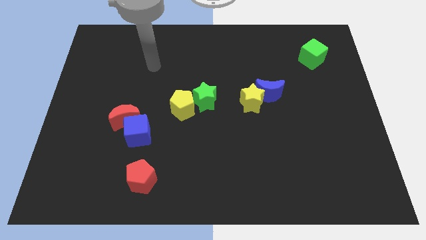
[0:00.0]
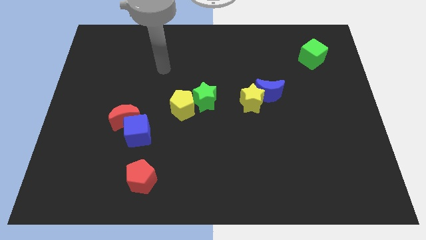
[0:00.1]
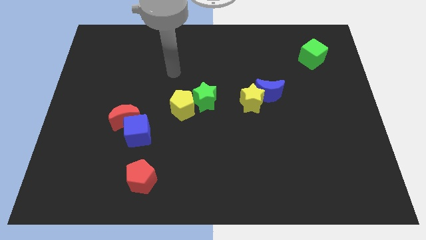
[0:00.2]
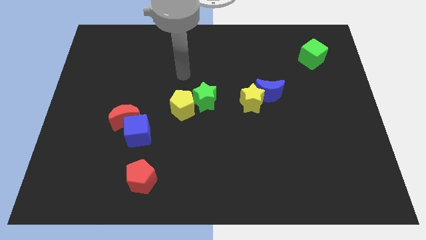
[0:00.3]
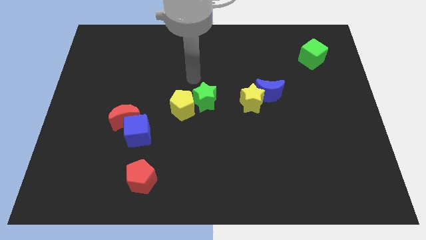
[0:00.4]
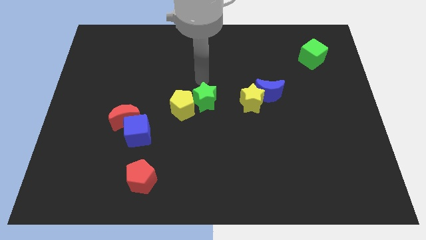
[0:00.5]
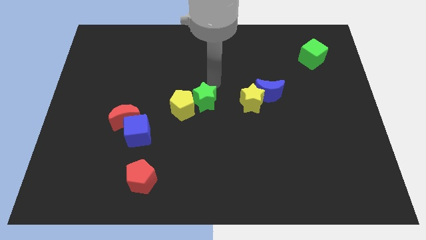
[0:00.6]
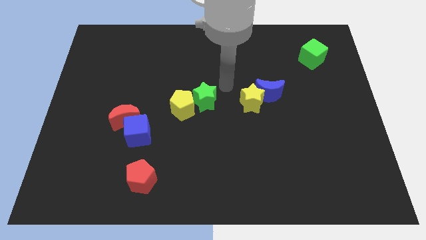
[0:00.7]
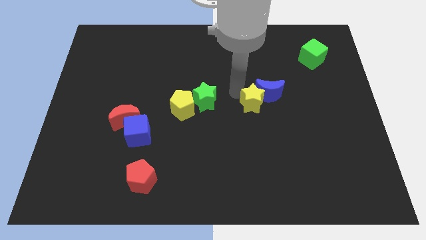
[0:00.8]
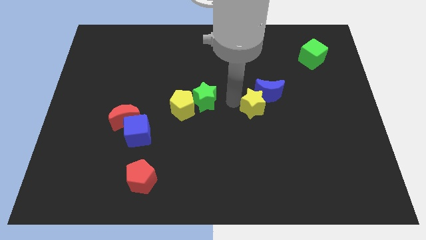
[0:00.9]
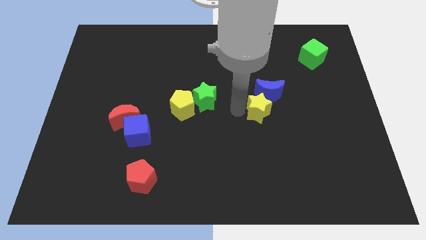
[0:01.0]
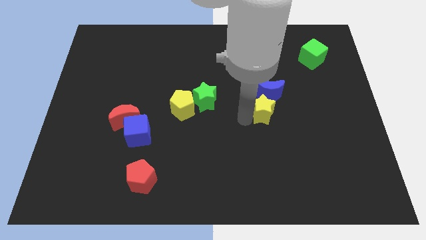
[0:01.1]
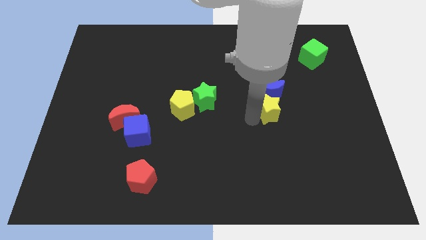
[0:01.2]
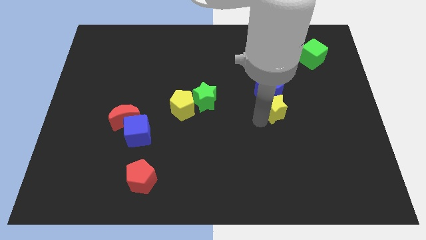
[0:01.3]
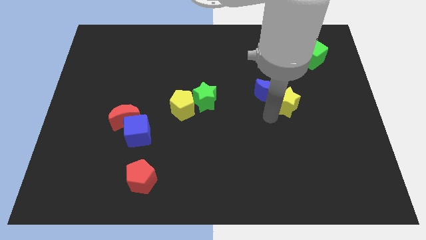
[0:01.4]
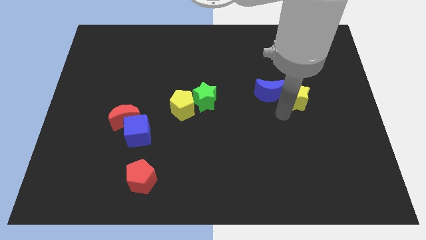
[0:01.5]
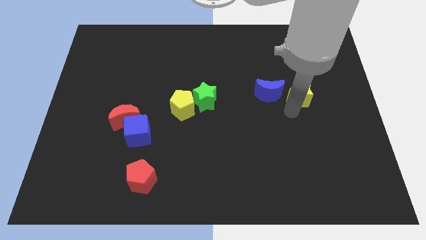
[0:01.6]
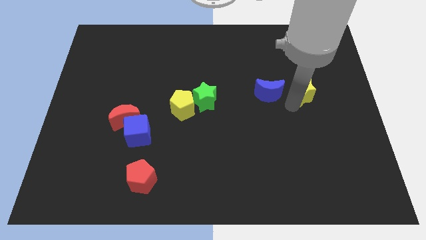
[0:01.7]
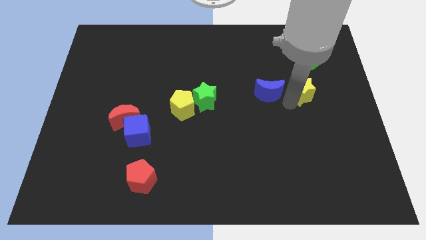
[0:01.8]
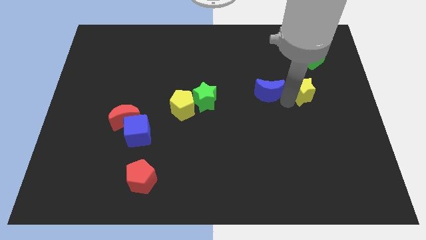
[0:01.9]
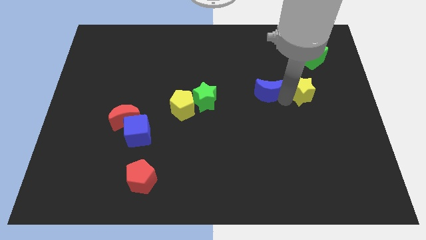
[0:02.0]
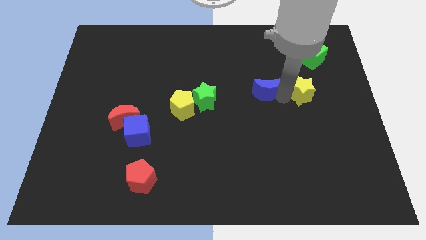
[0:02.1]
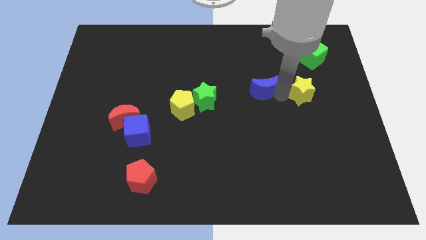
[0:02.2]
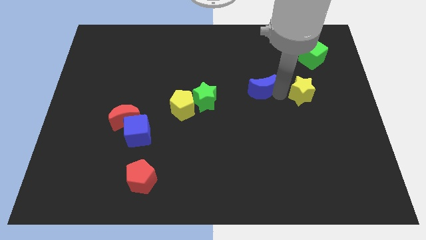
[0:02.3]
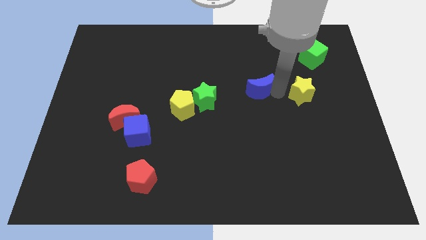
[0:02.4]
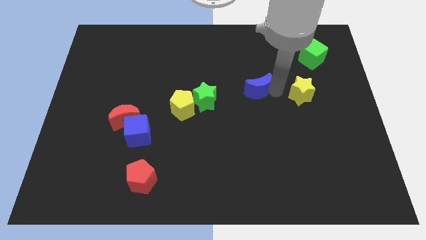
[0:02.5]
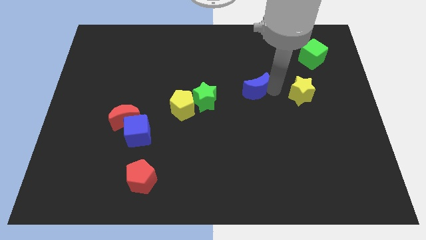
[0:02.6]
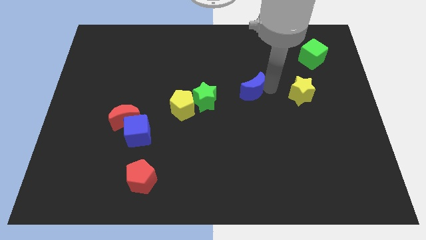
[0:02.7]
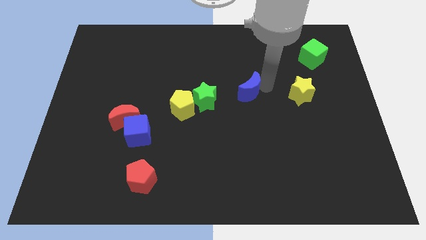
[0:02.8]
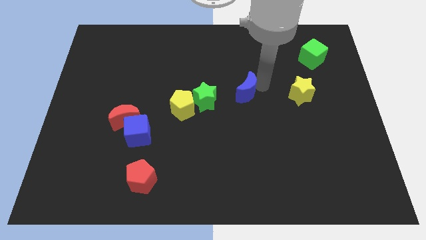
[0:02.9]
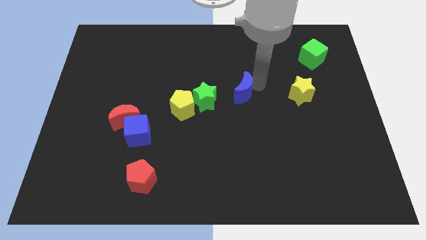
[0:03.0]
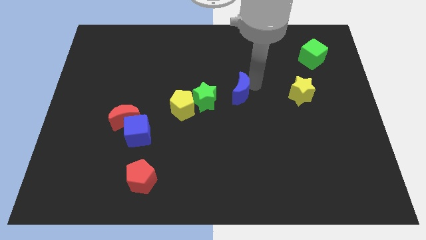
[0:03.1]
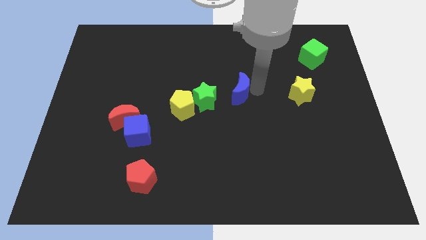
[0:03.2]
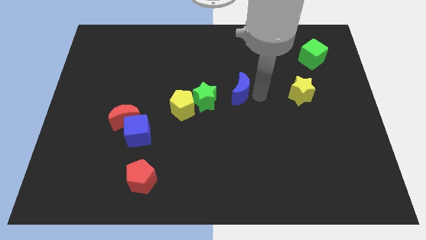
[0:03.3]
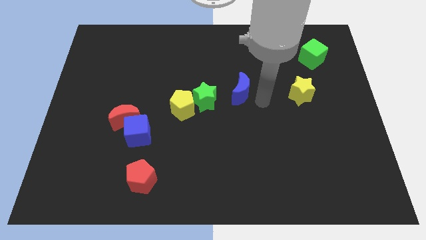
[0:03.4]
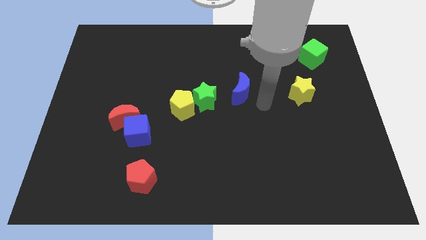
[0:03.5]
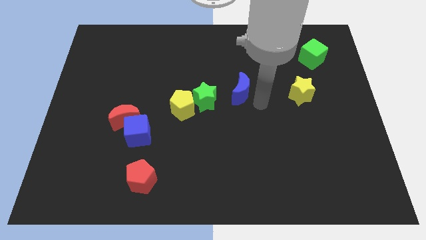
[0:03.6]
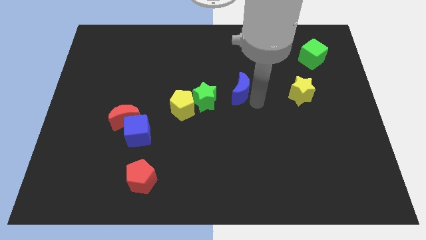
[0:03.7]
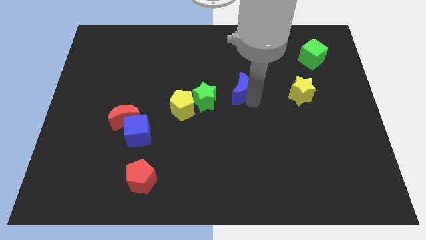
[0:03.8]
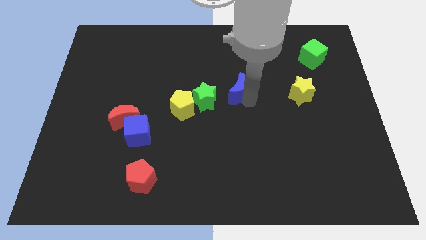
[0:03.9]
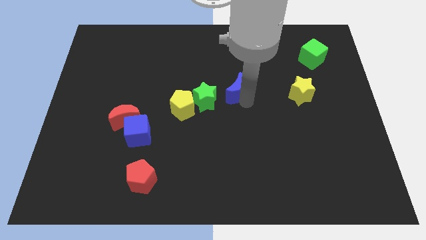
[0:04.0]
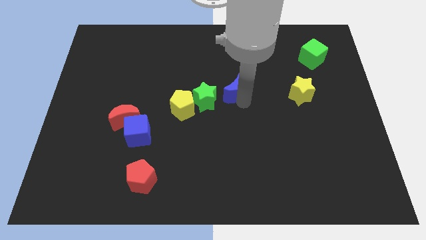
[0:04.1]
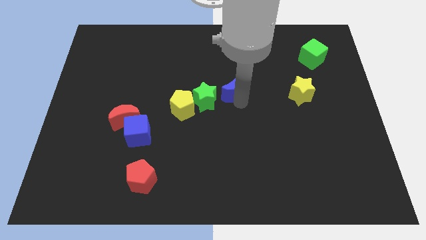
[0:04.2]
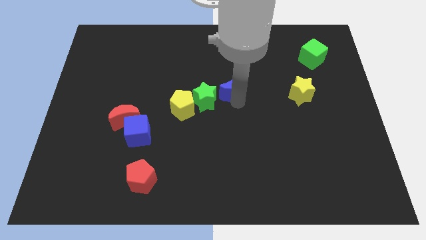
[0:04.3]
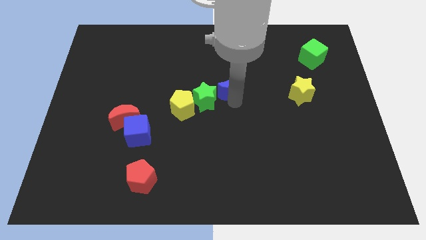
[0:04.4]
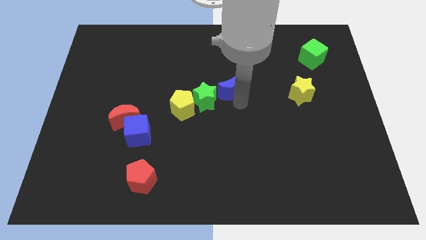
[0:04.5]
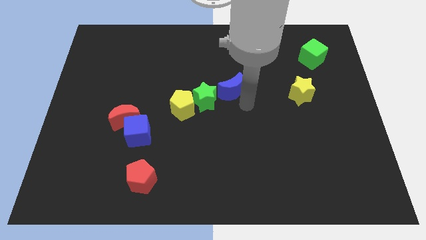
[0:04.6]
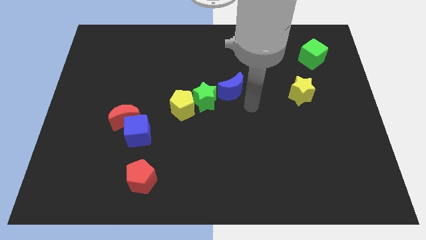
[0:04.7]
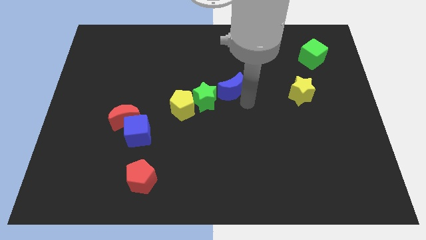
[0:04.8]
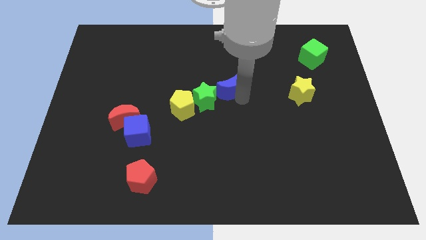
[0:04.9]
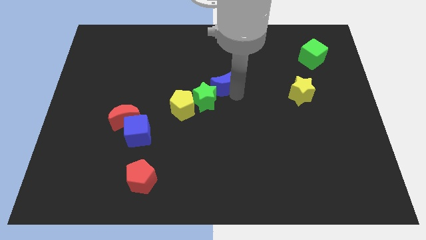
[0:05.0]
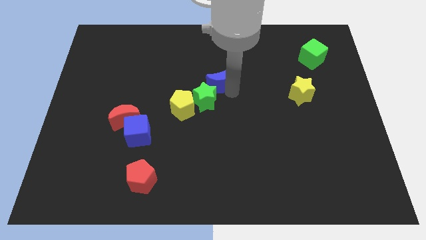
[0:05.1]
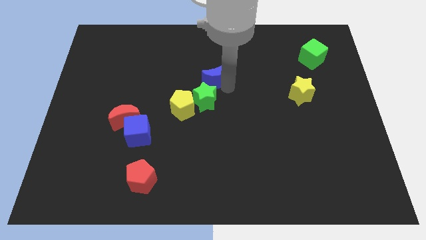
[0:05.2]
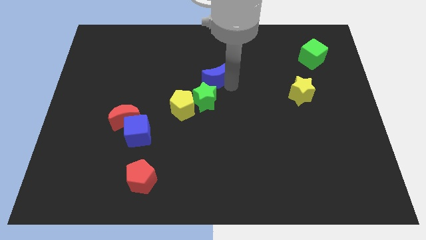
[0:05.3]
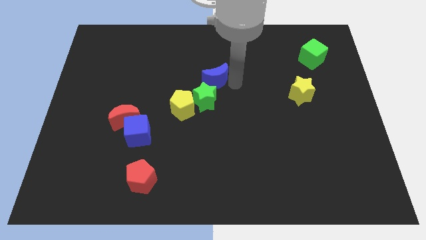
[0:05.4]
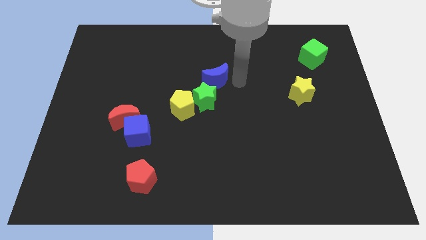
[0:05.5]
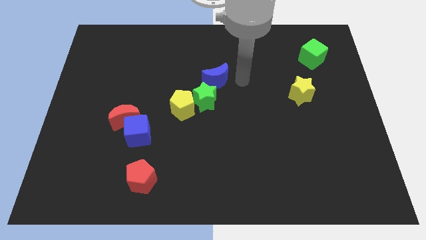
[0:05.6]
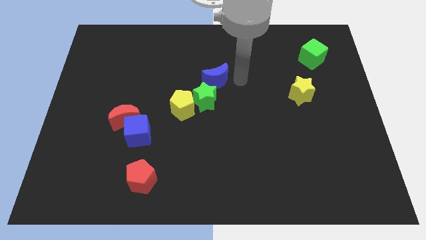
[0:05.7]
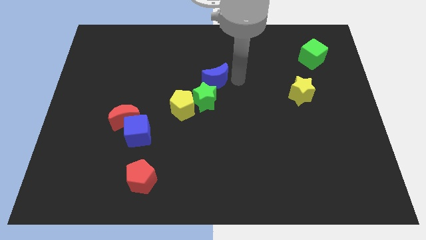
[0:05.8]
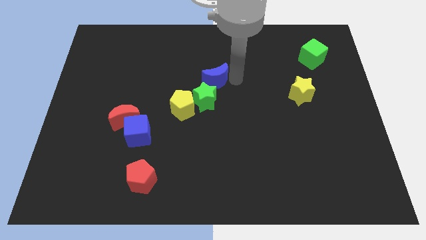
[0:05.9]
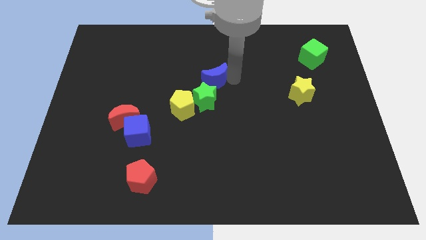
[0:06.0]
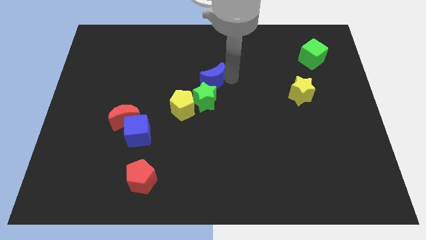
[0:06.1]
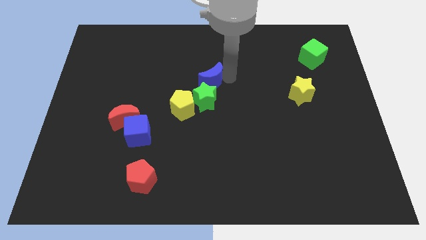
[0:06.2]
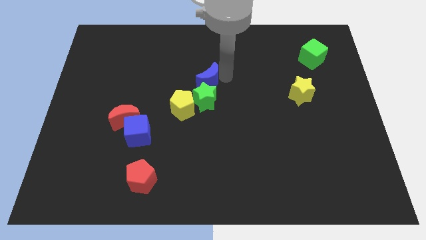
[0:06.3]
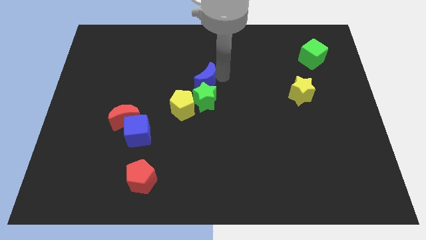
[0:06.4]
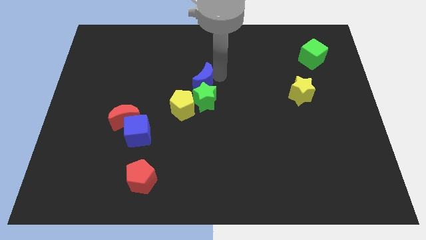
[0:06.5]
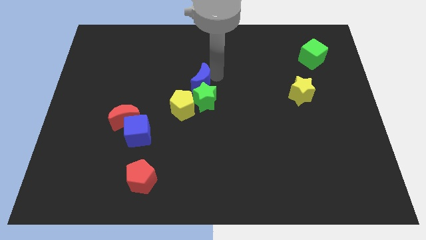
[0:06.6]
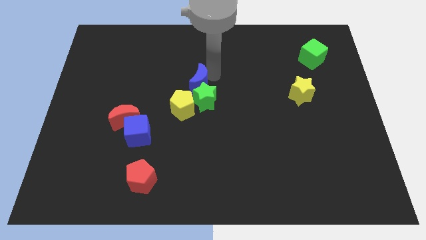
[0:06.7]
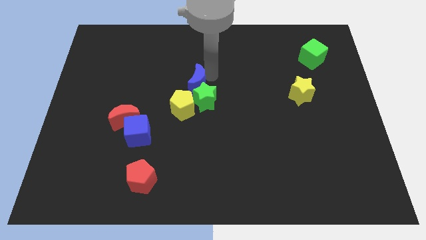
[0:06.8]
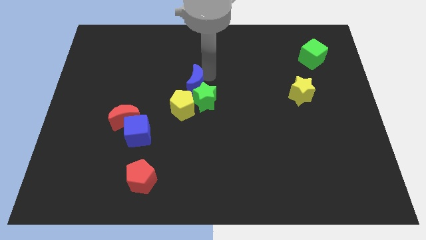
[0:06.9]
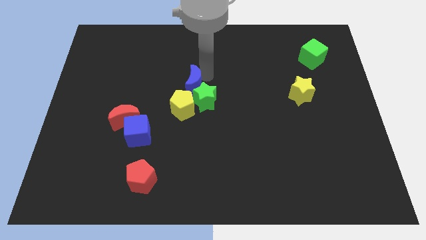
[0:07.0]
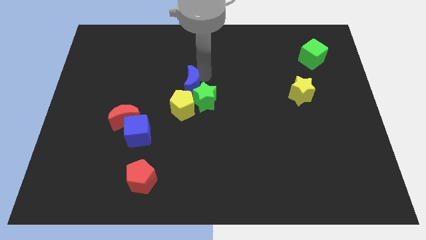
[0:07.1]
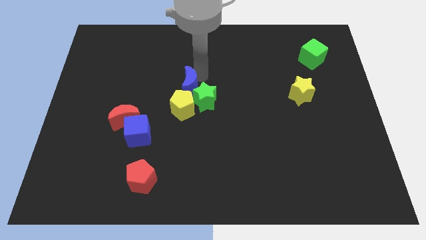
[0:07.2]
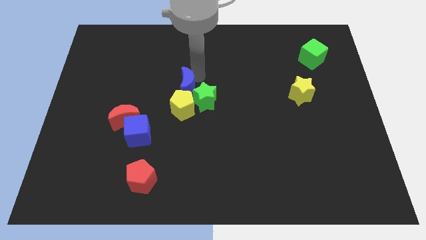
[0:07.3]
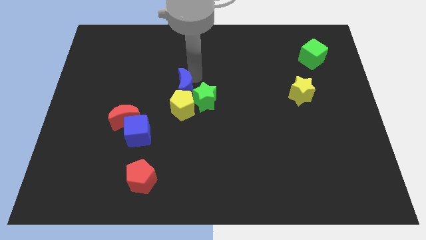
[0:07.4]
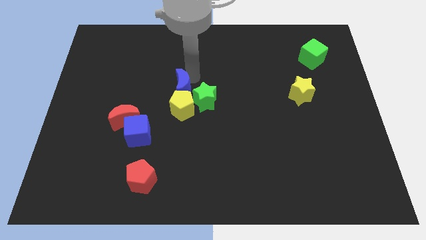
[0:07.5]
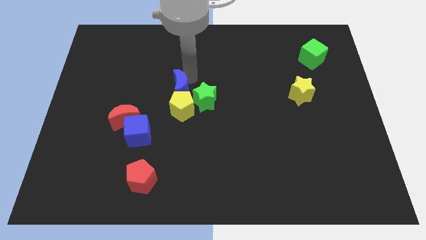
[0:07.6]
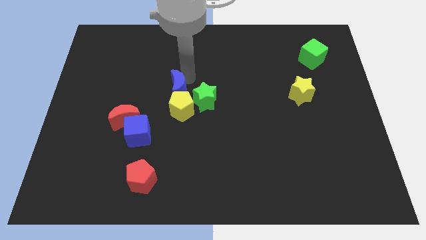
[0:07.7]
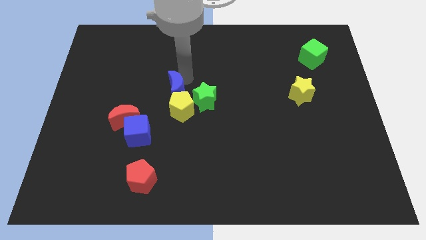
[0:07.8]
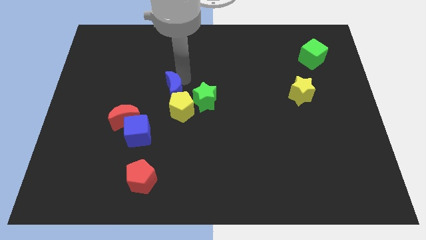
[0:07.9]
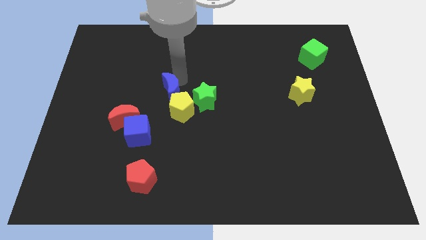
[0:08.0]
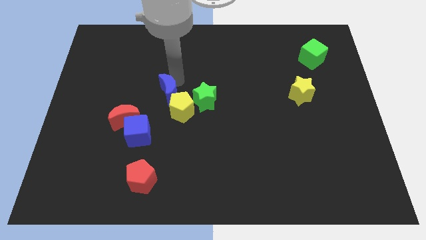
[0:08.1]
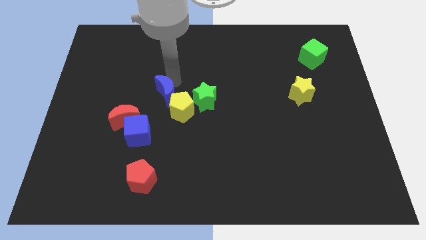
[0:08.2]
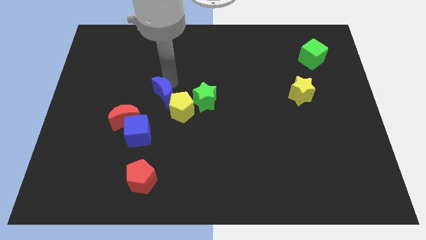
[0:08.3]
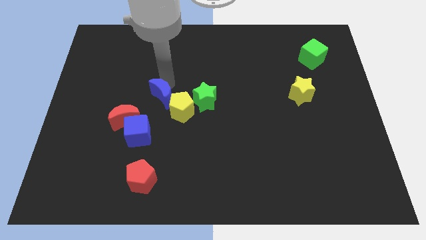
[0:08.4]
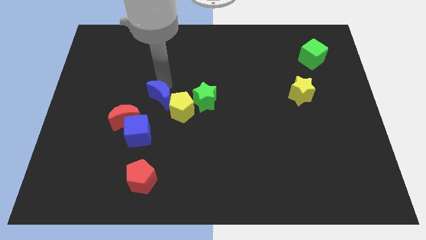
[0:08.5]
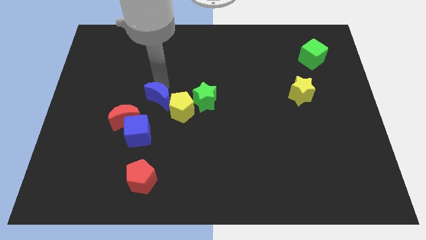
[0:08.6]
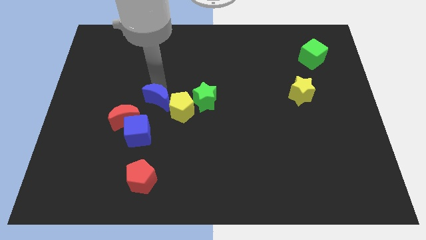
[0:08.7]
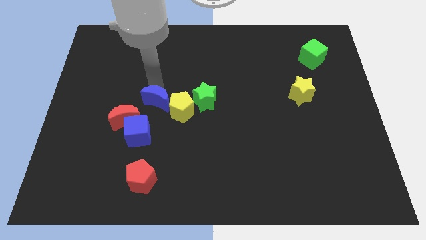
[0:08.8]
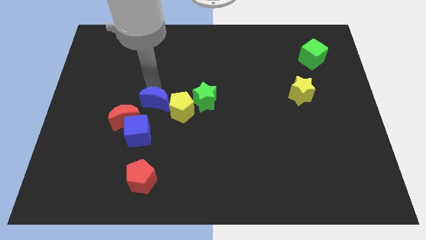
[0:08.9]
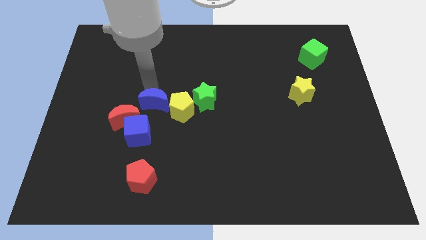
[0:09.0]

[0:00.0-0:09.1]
slide the blue moon just right of the red moon
